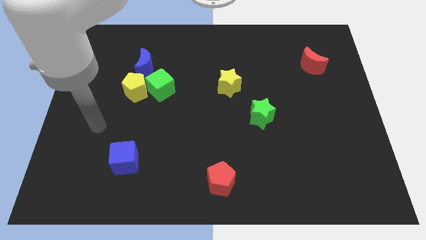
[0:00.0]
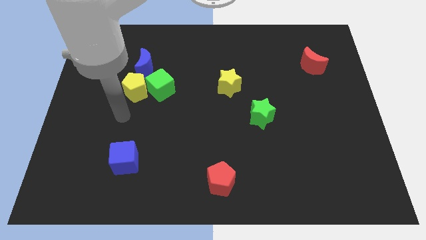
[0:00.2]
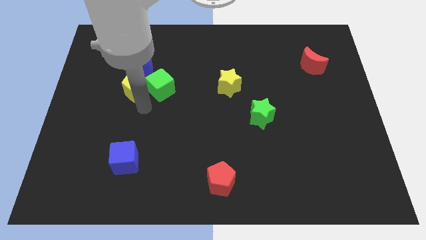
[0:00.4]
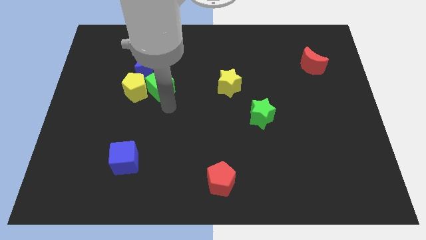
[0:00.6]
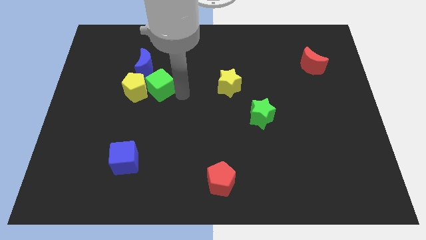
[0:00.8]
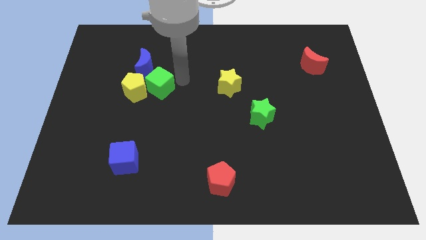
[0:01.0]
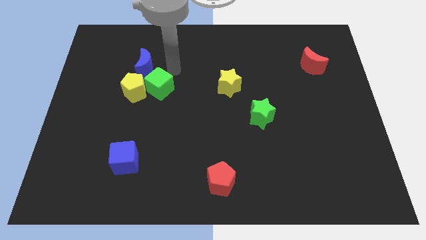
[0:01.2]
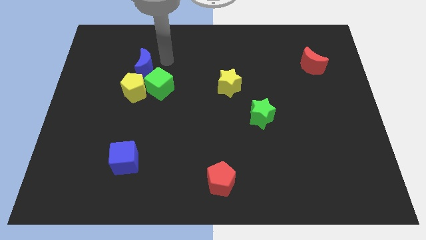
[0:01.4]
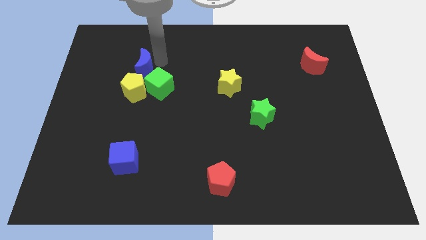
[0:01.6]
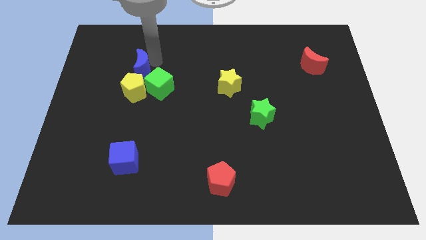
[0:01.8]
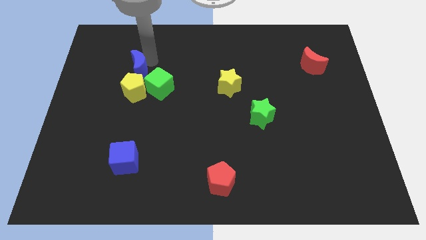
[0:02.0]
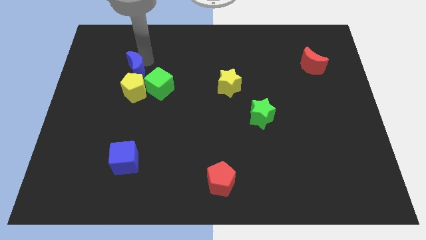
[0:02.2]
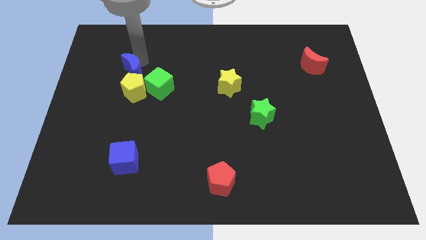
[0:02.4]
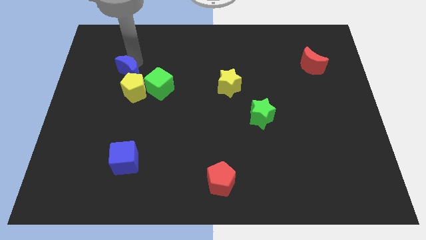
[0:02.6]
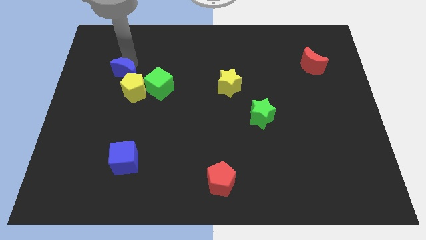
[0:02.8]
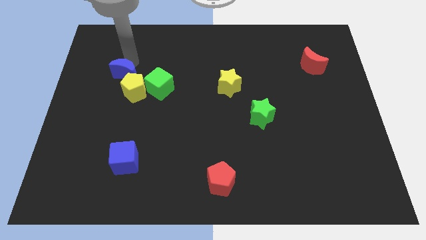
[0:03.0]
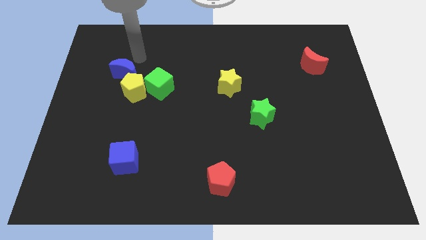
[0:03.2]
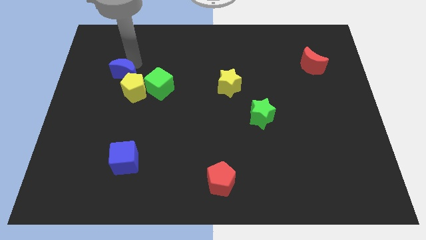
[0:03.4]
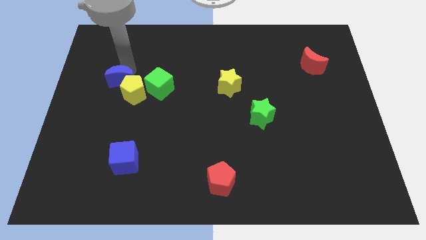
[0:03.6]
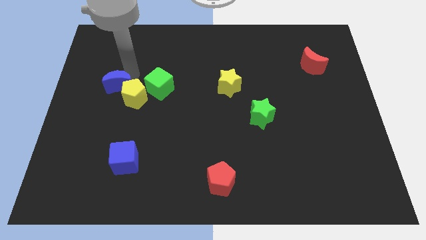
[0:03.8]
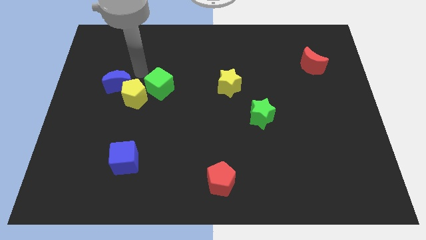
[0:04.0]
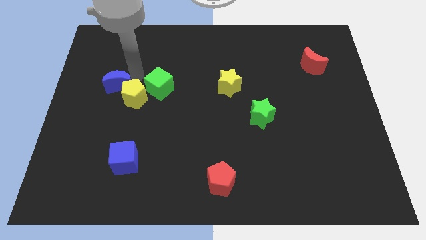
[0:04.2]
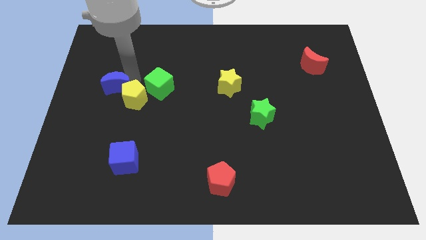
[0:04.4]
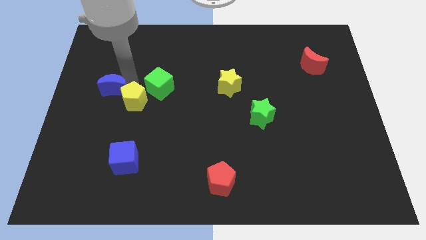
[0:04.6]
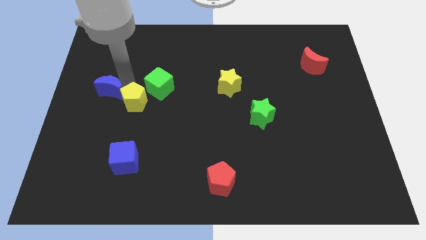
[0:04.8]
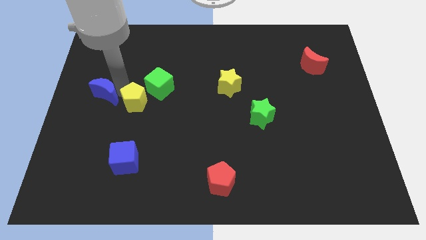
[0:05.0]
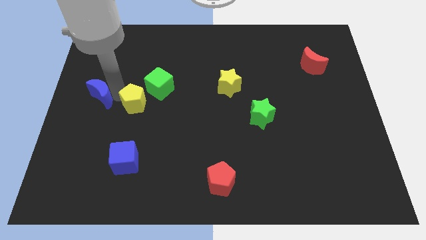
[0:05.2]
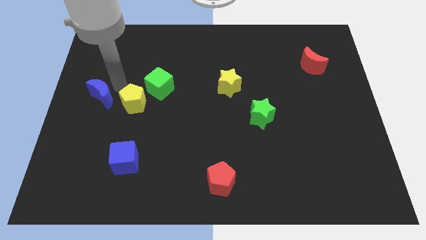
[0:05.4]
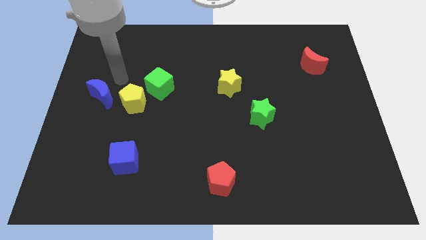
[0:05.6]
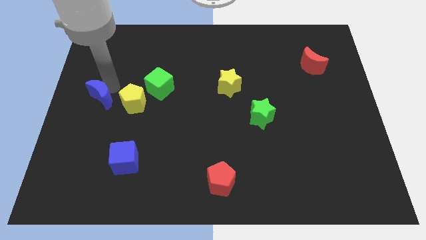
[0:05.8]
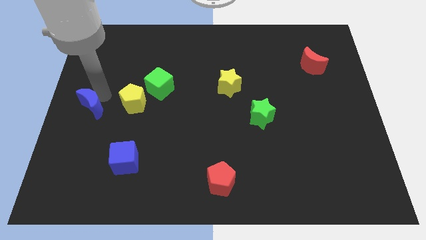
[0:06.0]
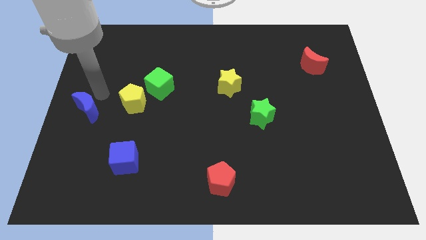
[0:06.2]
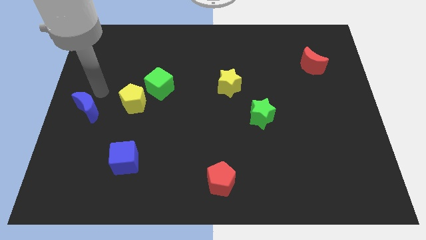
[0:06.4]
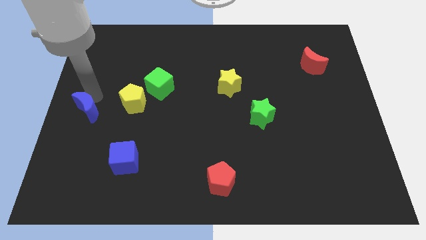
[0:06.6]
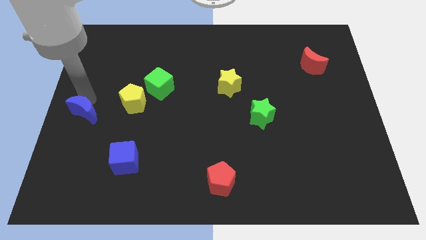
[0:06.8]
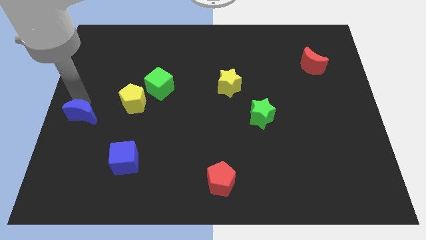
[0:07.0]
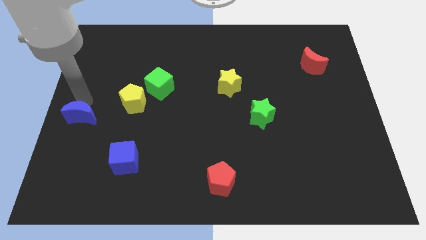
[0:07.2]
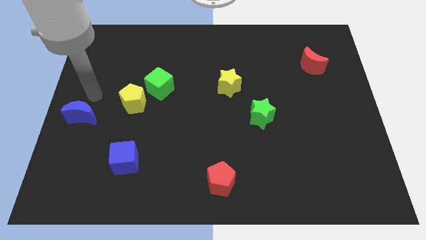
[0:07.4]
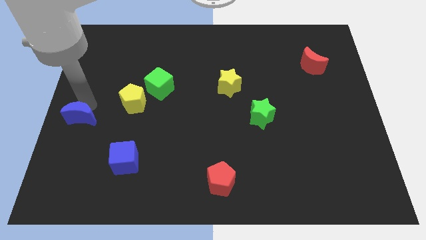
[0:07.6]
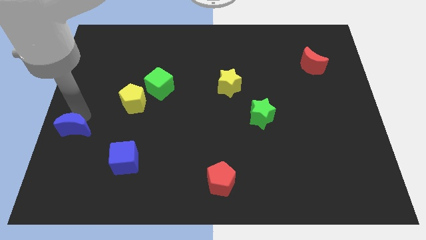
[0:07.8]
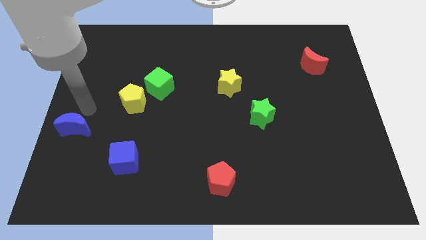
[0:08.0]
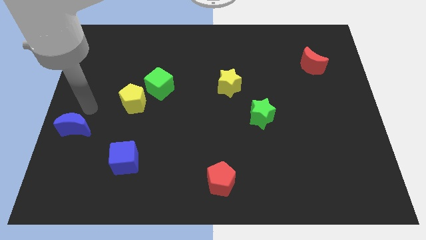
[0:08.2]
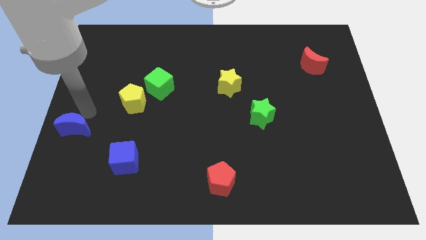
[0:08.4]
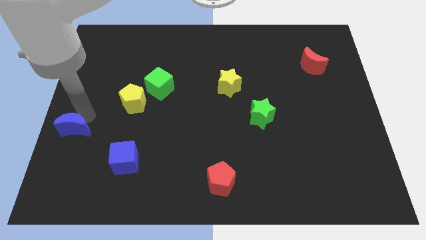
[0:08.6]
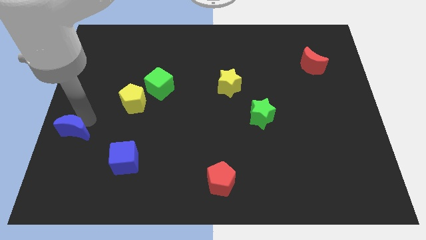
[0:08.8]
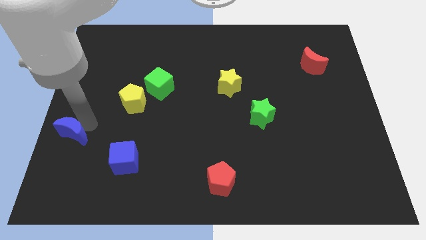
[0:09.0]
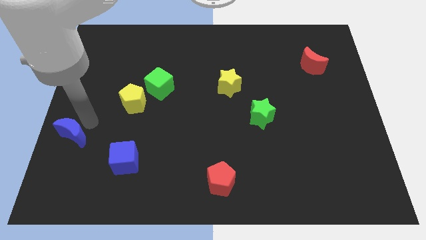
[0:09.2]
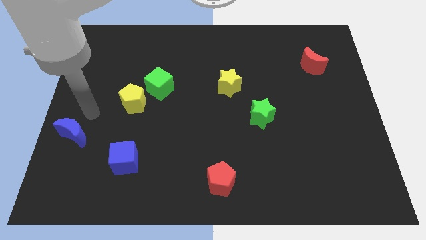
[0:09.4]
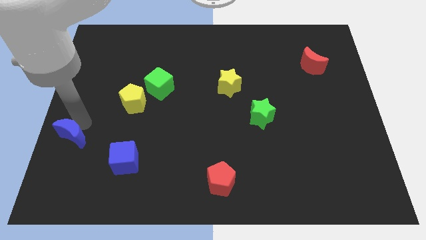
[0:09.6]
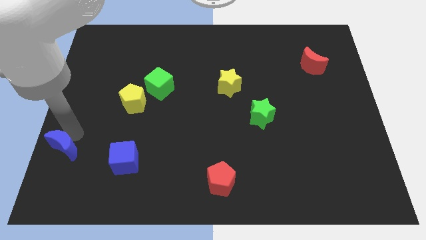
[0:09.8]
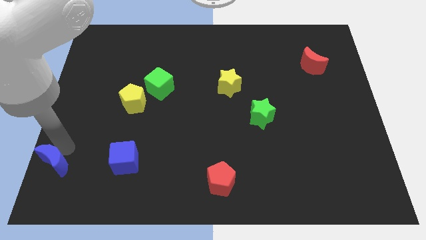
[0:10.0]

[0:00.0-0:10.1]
move the blue moon to the bottom left

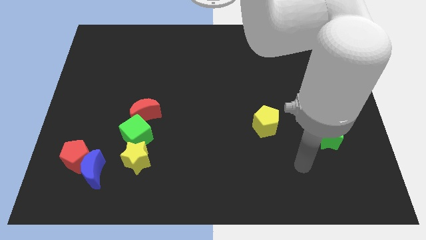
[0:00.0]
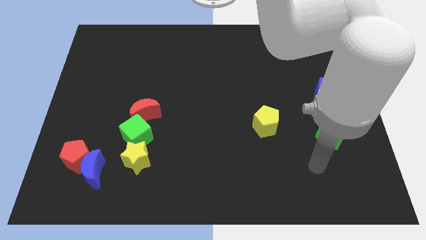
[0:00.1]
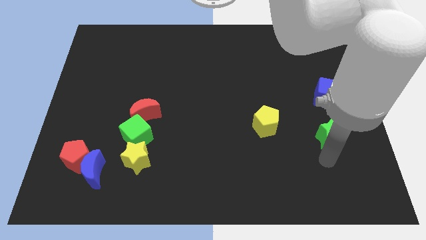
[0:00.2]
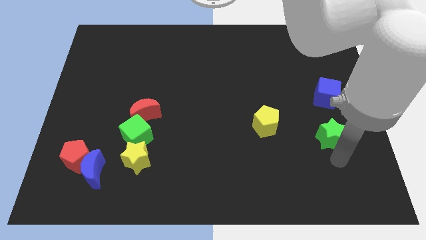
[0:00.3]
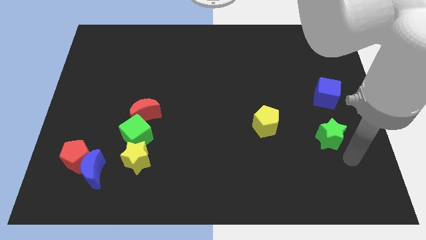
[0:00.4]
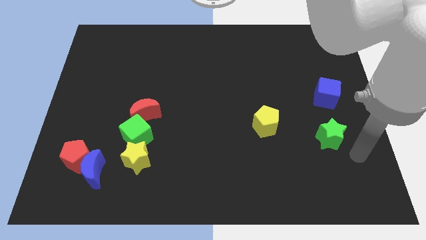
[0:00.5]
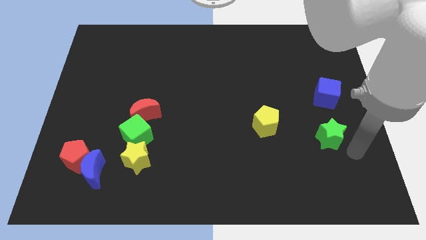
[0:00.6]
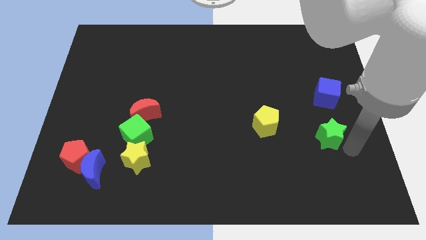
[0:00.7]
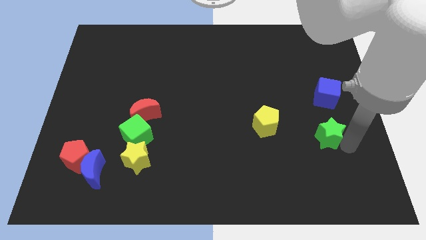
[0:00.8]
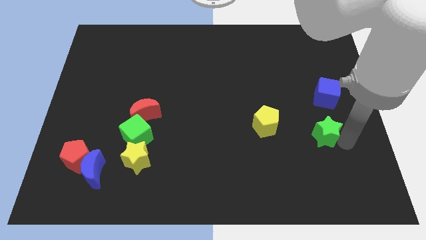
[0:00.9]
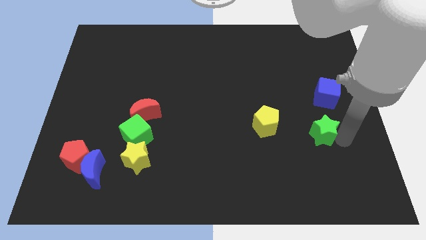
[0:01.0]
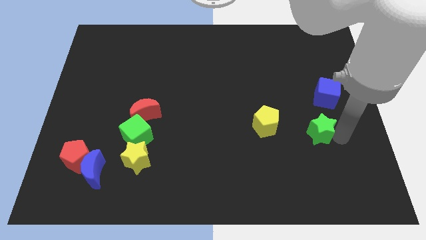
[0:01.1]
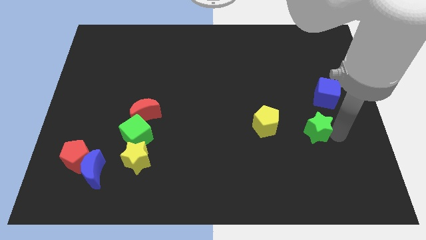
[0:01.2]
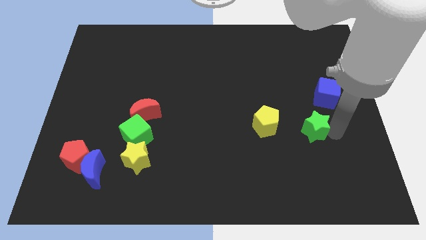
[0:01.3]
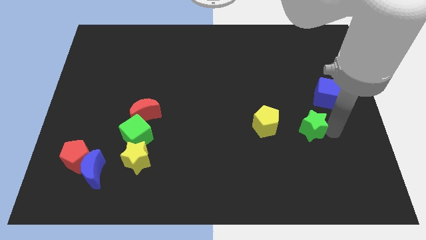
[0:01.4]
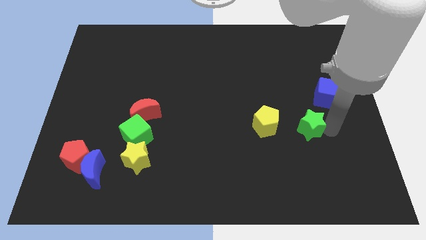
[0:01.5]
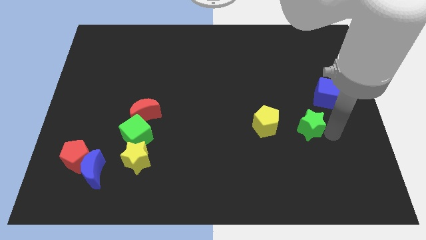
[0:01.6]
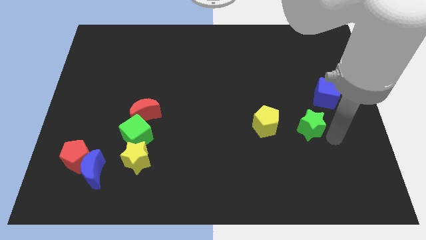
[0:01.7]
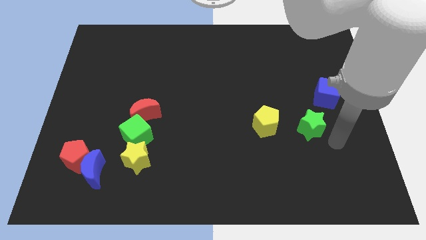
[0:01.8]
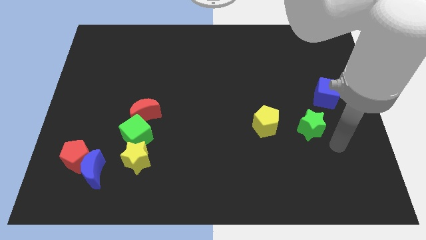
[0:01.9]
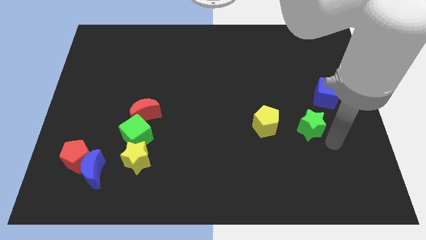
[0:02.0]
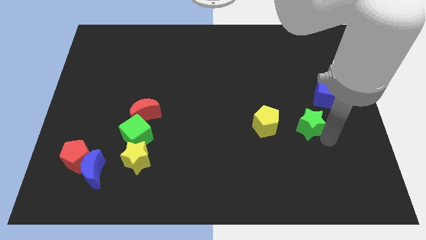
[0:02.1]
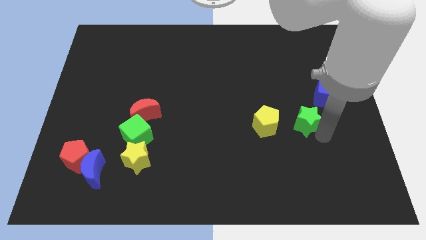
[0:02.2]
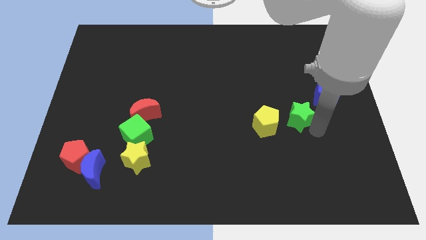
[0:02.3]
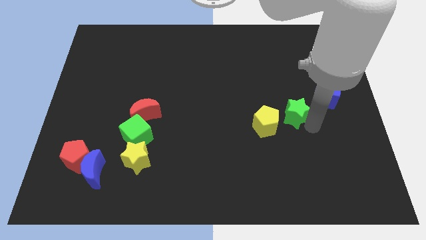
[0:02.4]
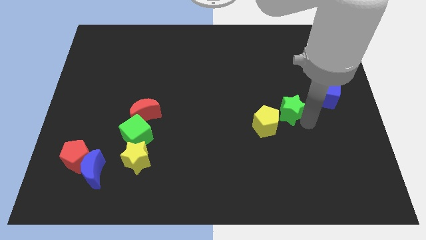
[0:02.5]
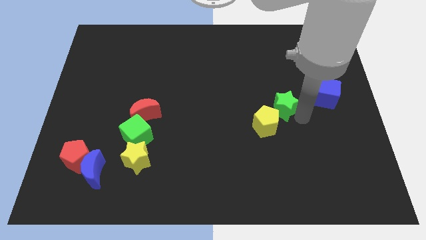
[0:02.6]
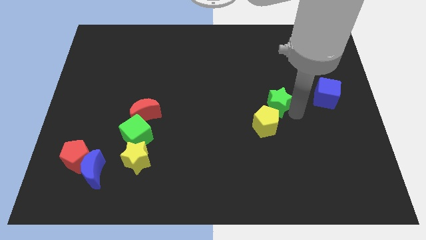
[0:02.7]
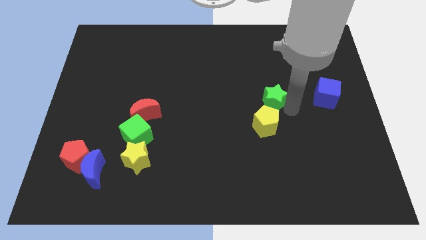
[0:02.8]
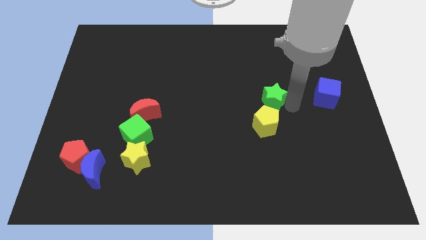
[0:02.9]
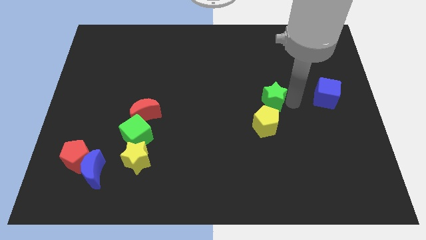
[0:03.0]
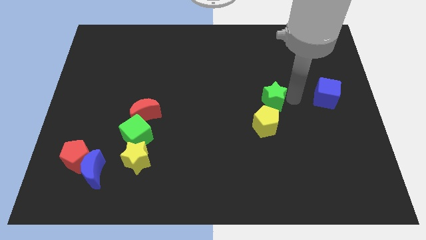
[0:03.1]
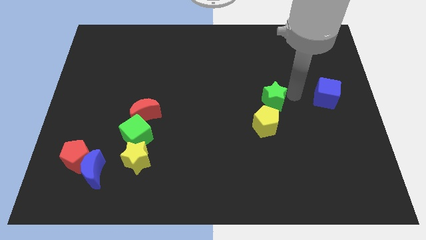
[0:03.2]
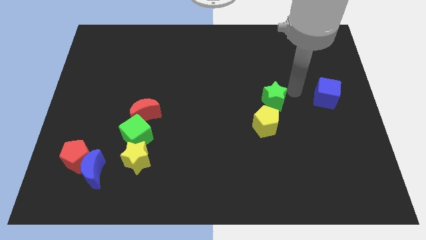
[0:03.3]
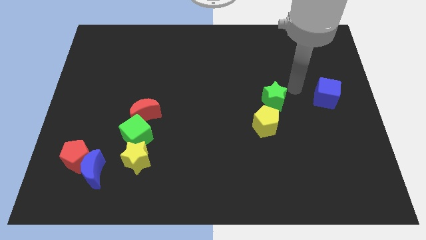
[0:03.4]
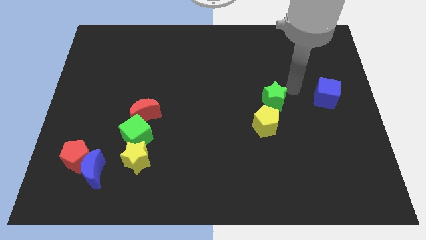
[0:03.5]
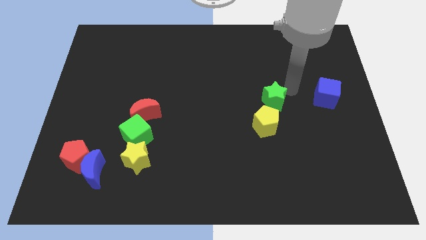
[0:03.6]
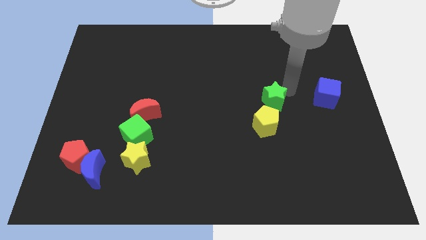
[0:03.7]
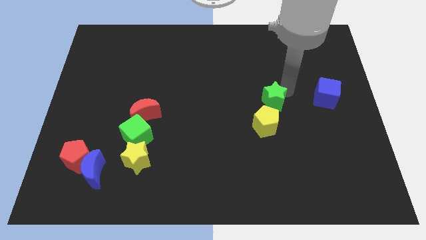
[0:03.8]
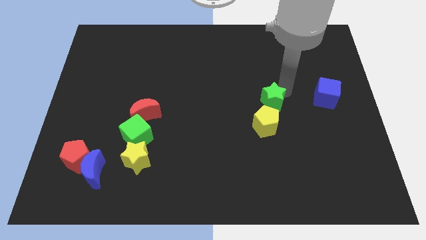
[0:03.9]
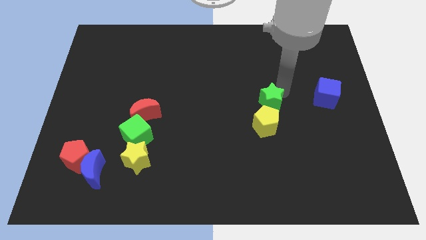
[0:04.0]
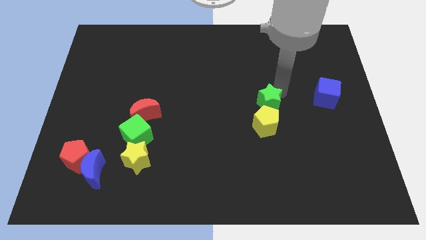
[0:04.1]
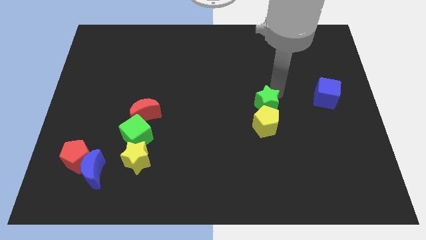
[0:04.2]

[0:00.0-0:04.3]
push the green star to the middle
